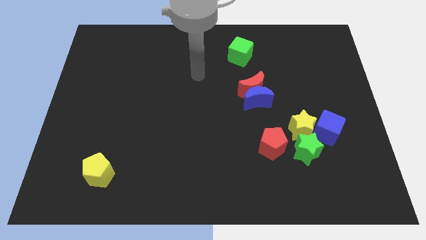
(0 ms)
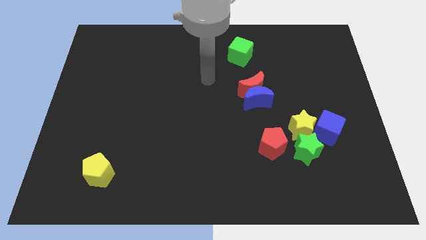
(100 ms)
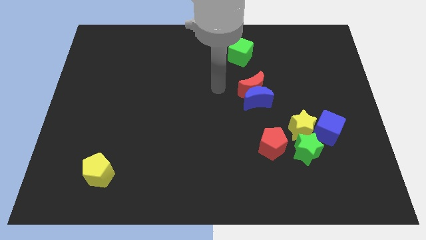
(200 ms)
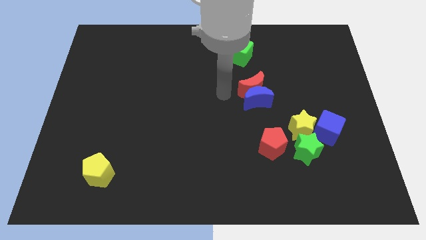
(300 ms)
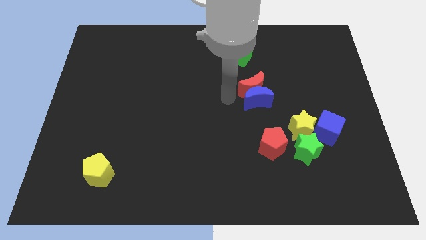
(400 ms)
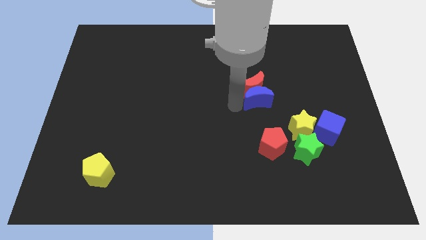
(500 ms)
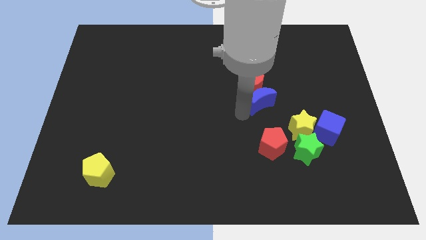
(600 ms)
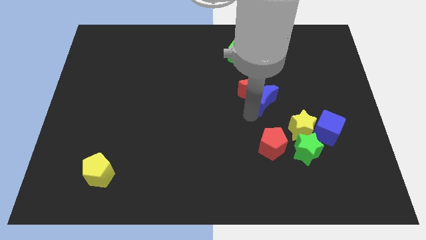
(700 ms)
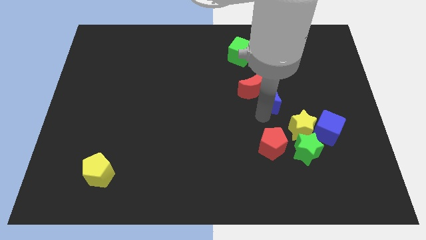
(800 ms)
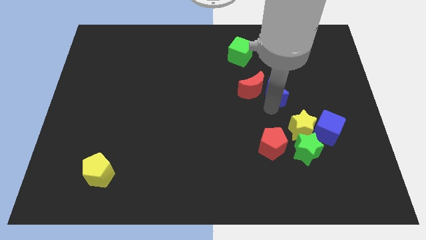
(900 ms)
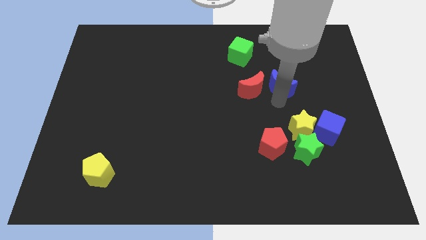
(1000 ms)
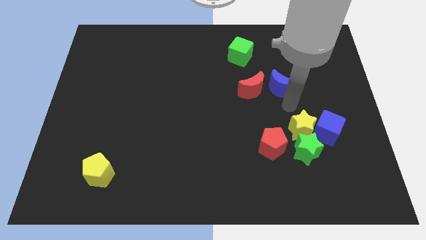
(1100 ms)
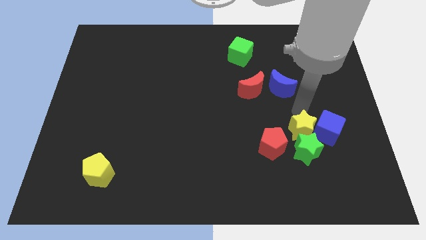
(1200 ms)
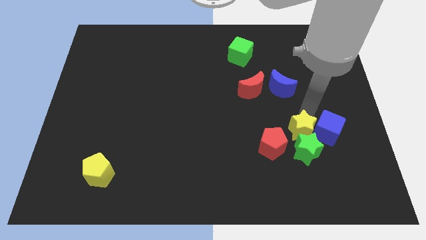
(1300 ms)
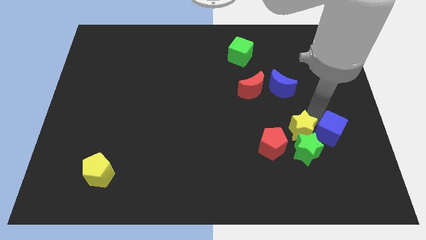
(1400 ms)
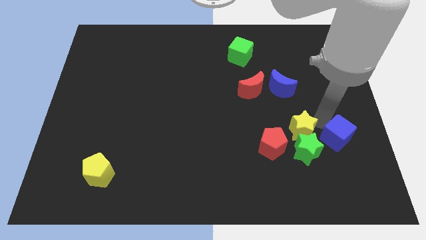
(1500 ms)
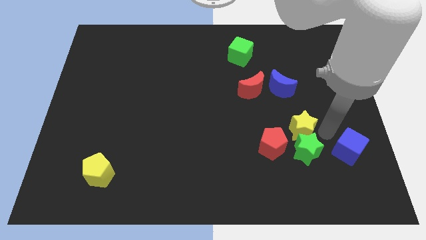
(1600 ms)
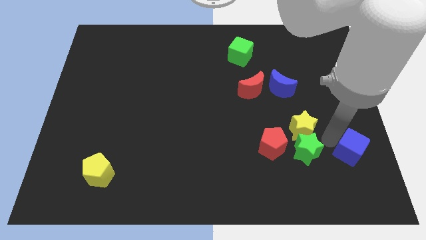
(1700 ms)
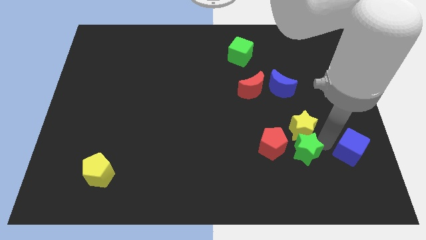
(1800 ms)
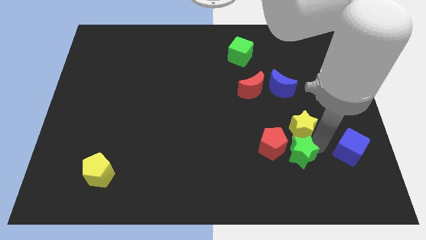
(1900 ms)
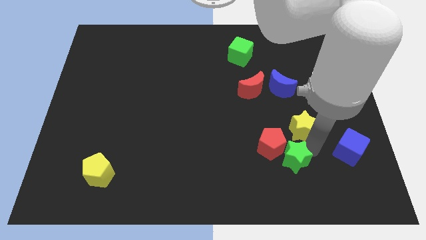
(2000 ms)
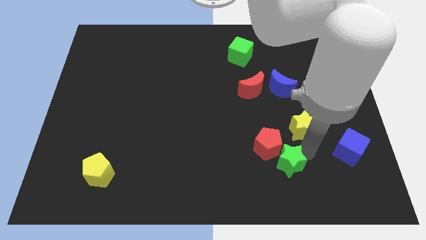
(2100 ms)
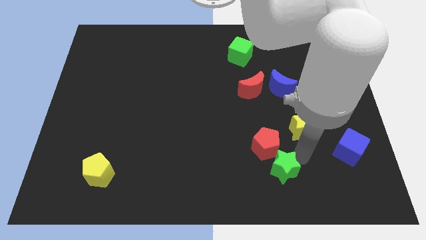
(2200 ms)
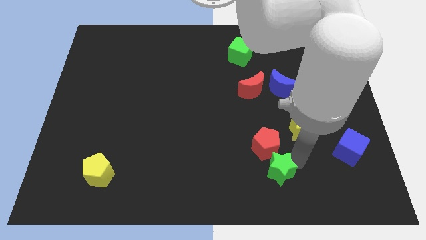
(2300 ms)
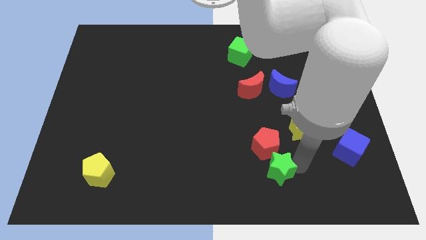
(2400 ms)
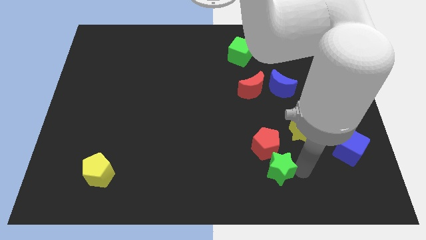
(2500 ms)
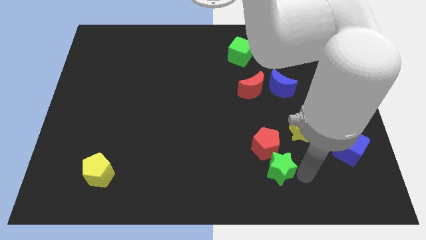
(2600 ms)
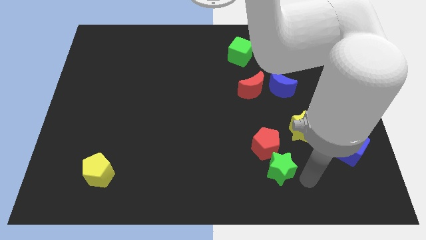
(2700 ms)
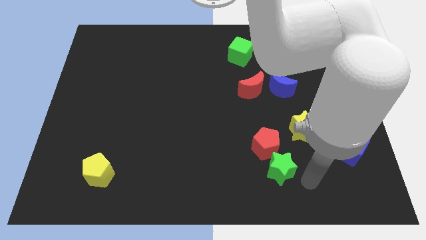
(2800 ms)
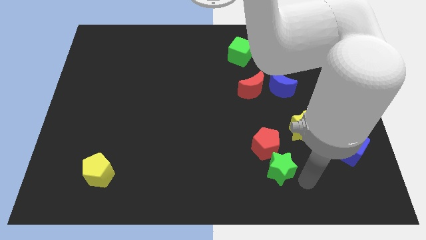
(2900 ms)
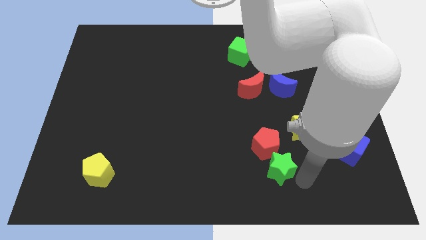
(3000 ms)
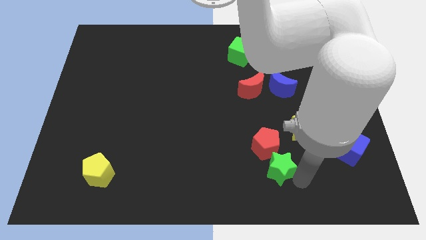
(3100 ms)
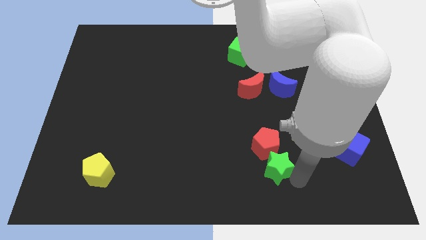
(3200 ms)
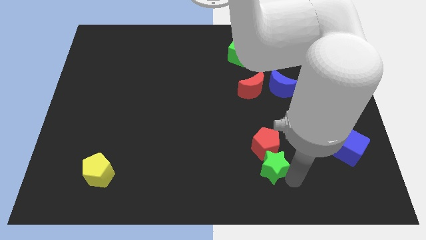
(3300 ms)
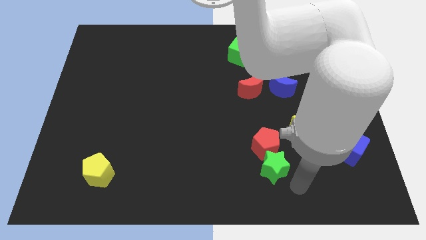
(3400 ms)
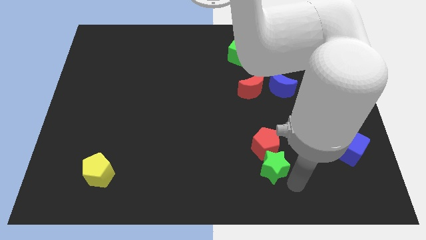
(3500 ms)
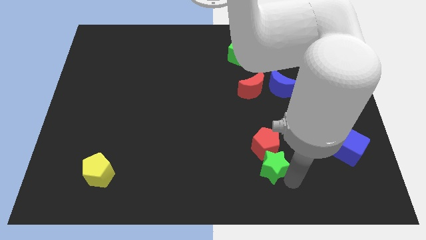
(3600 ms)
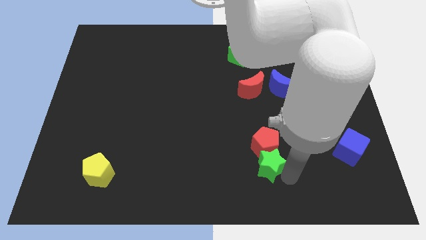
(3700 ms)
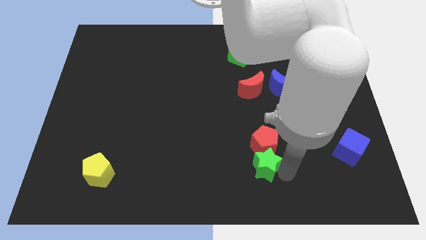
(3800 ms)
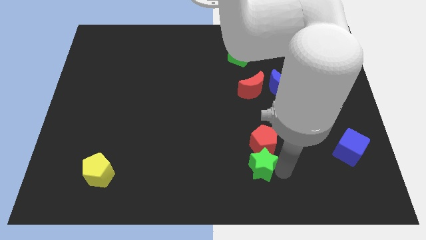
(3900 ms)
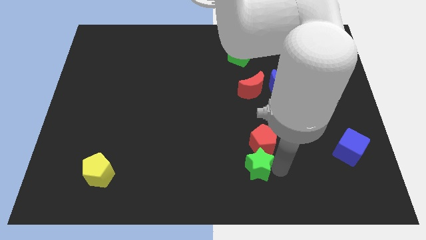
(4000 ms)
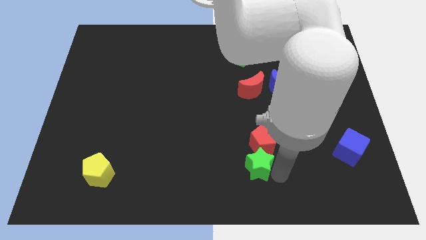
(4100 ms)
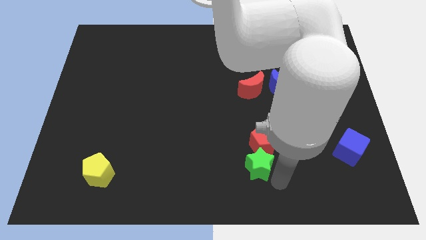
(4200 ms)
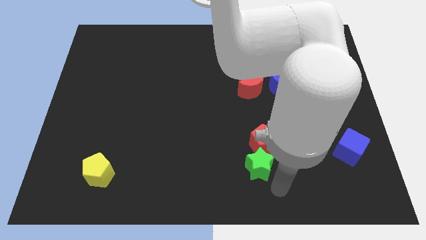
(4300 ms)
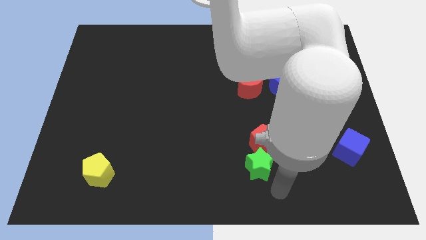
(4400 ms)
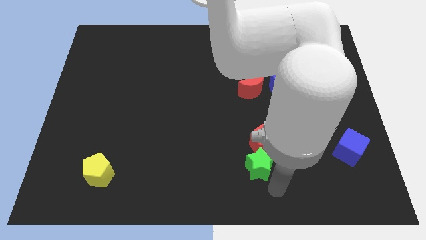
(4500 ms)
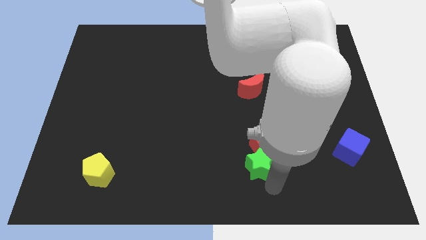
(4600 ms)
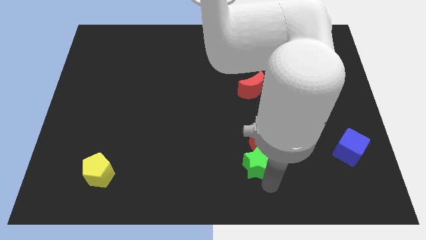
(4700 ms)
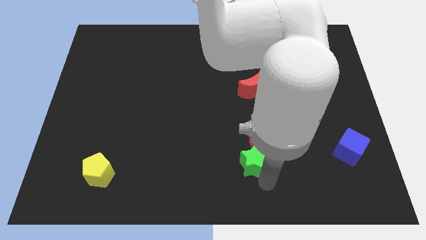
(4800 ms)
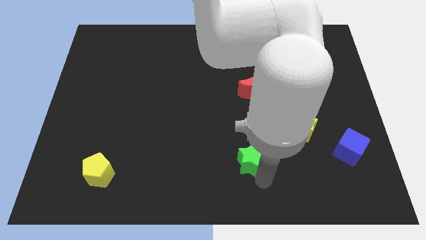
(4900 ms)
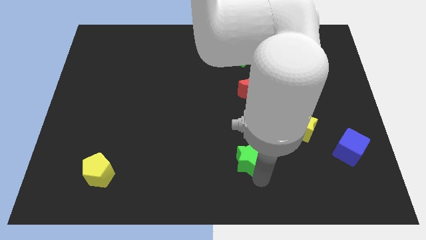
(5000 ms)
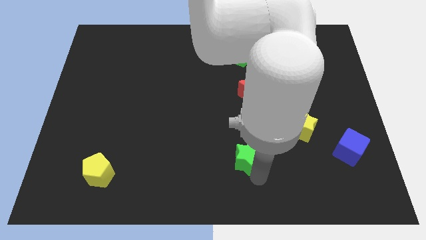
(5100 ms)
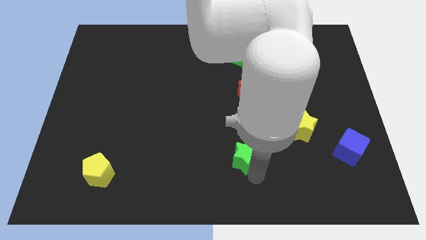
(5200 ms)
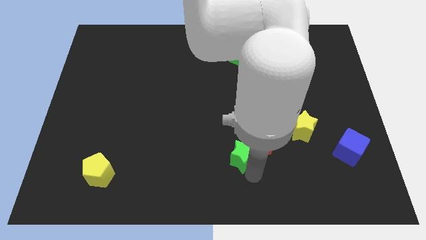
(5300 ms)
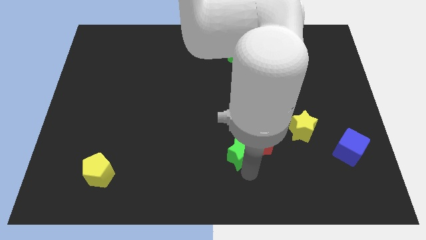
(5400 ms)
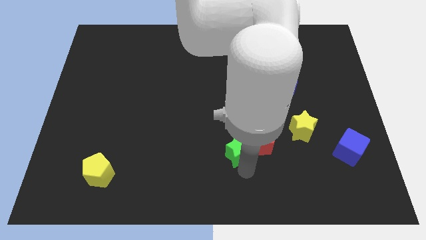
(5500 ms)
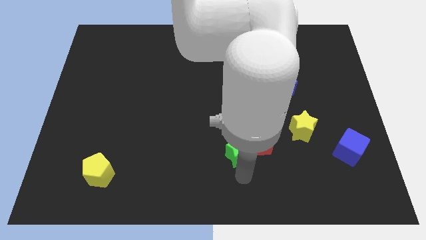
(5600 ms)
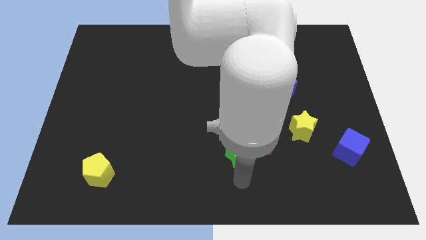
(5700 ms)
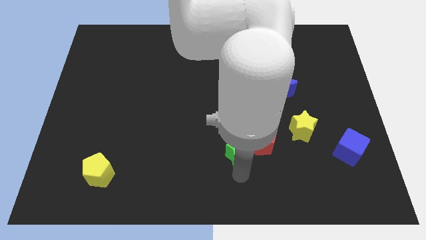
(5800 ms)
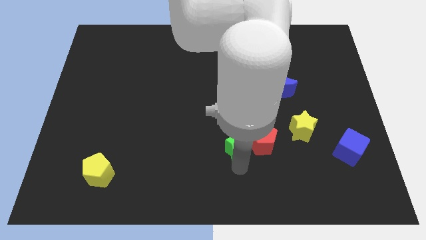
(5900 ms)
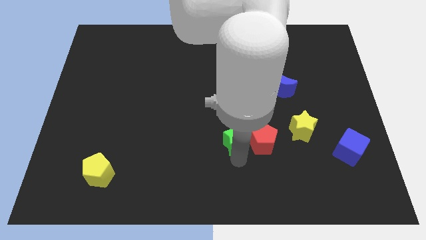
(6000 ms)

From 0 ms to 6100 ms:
put the green star to the center

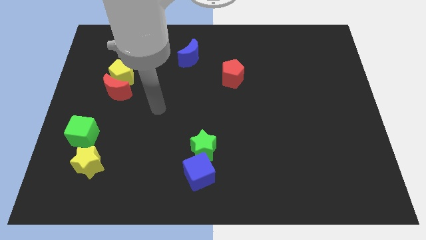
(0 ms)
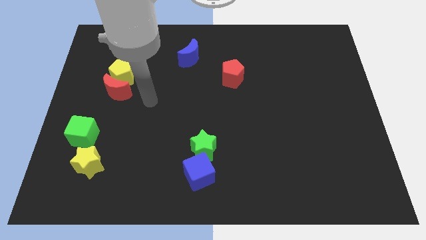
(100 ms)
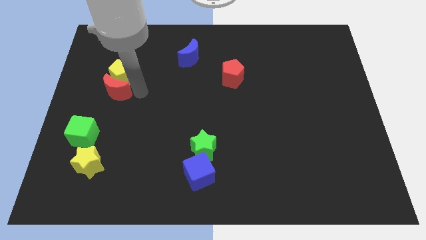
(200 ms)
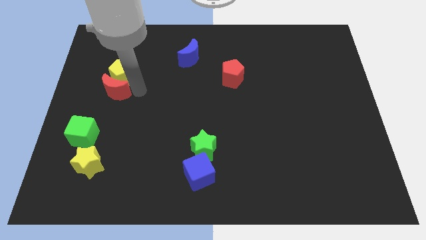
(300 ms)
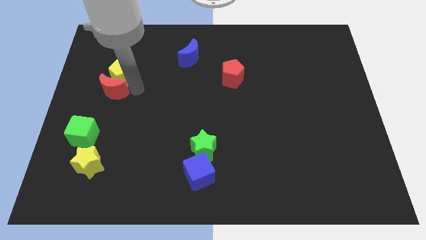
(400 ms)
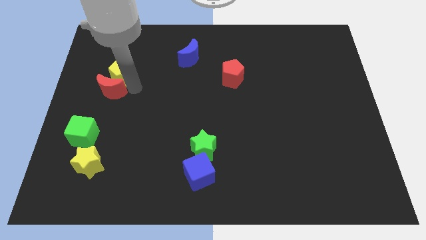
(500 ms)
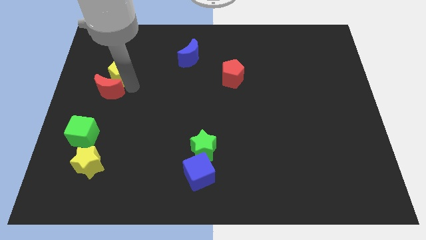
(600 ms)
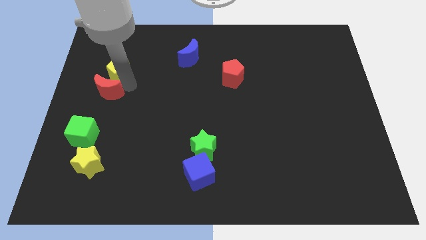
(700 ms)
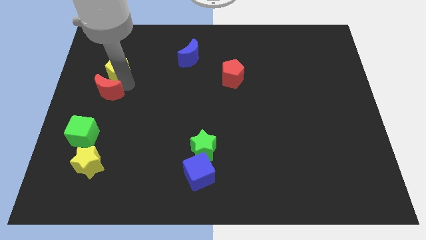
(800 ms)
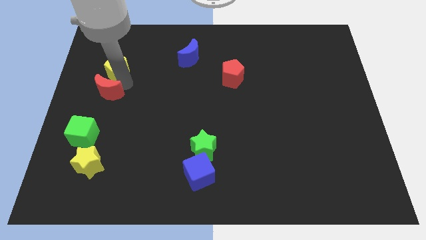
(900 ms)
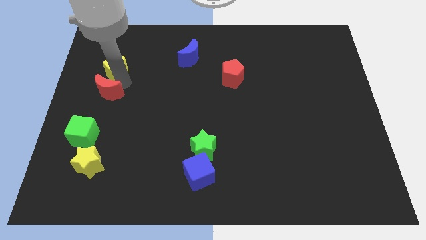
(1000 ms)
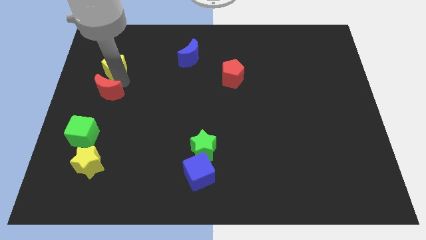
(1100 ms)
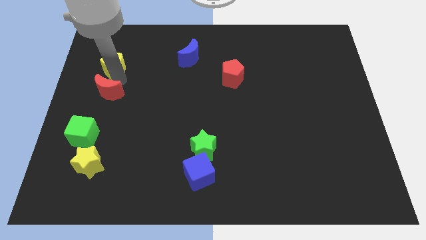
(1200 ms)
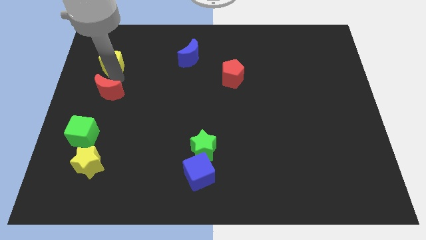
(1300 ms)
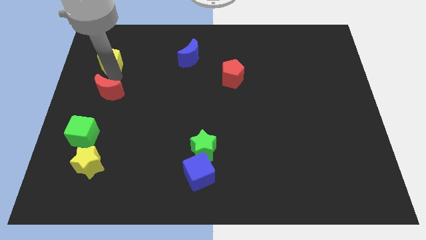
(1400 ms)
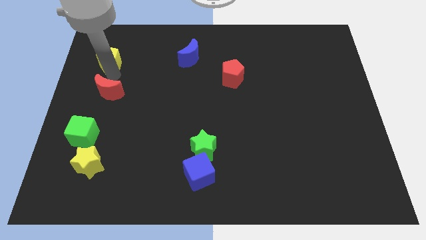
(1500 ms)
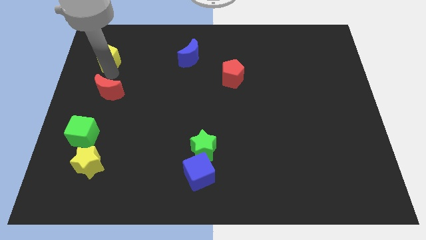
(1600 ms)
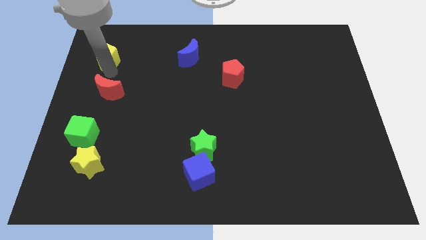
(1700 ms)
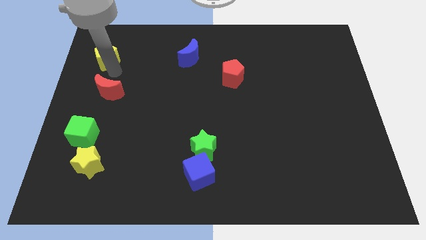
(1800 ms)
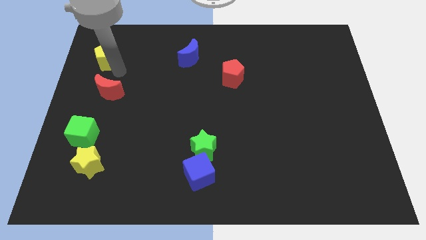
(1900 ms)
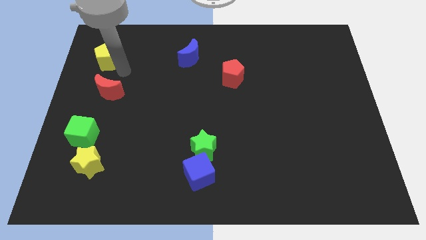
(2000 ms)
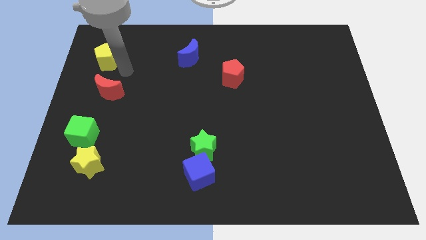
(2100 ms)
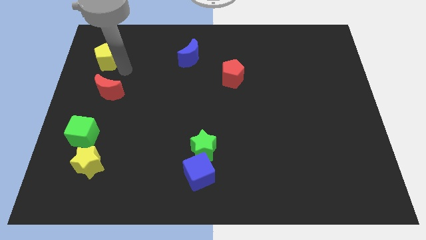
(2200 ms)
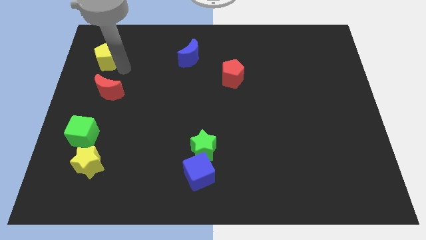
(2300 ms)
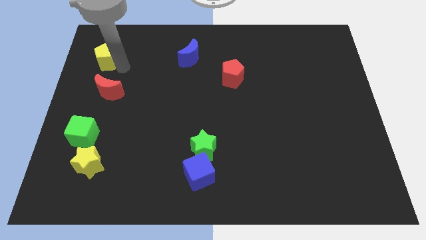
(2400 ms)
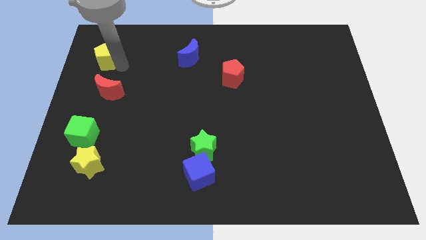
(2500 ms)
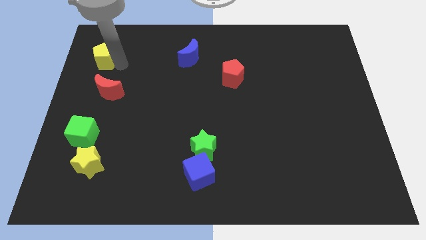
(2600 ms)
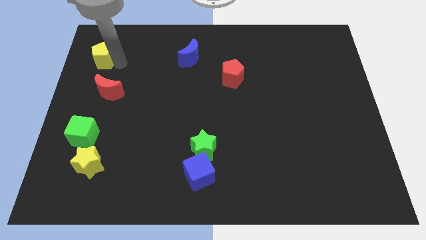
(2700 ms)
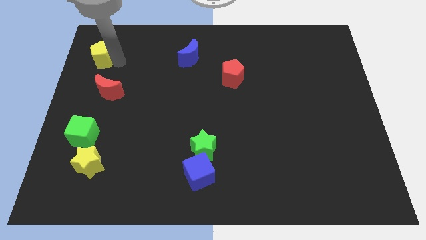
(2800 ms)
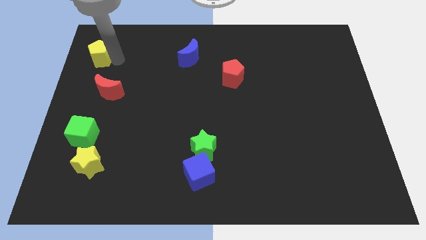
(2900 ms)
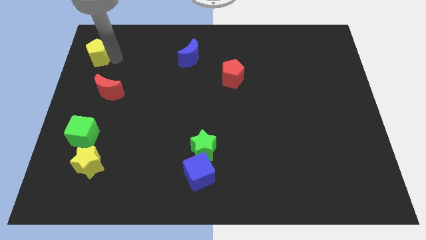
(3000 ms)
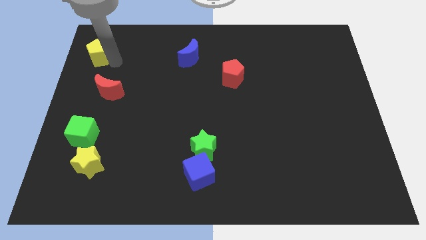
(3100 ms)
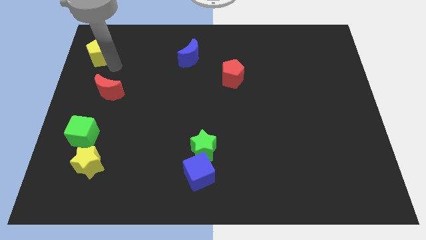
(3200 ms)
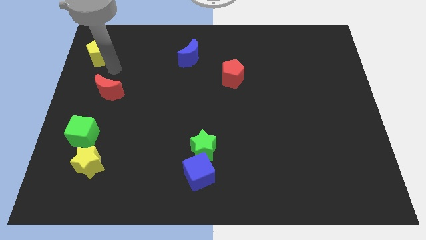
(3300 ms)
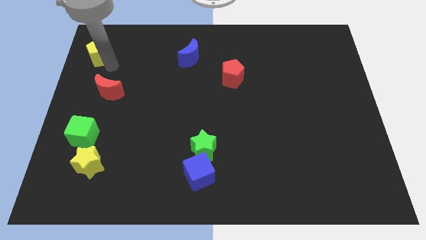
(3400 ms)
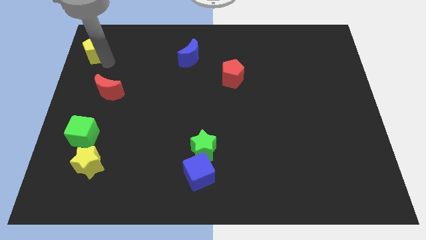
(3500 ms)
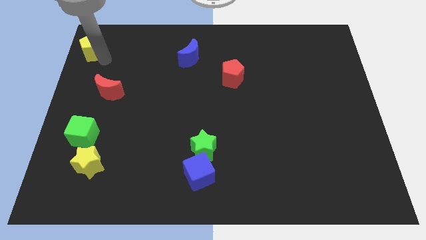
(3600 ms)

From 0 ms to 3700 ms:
move the yellow pentagon to the top left
